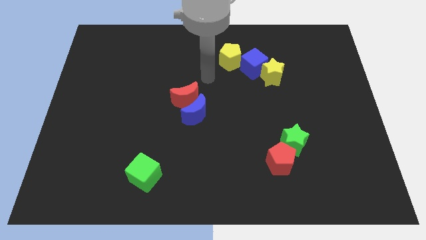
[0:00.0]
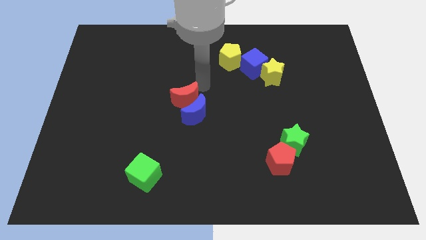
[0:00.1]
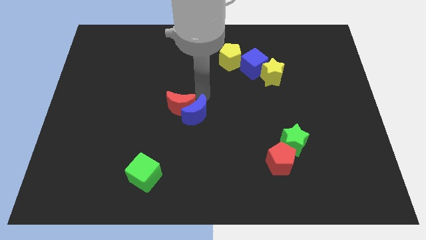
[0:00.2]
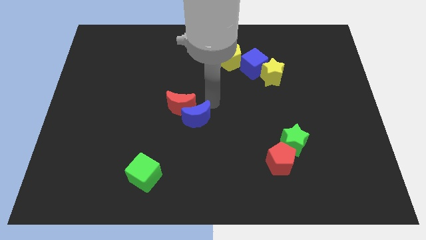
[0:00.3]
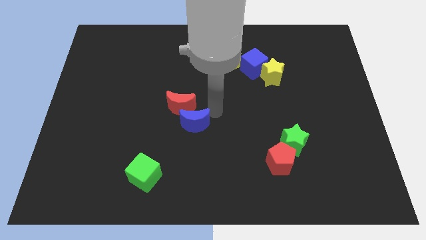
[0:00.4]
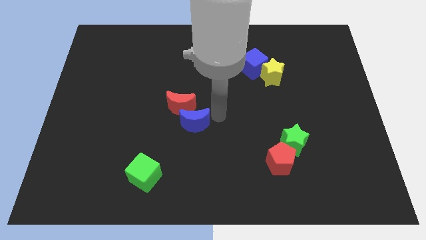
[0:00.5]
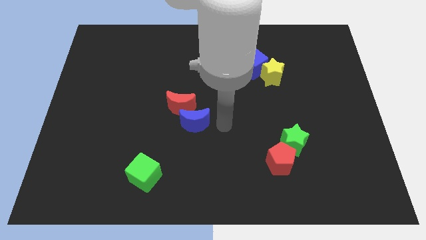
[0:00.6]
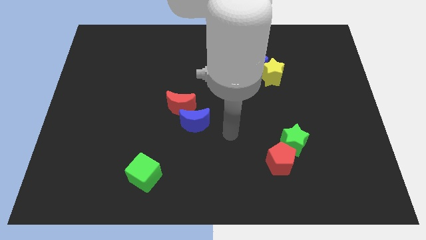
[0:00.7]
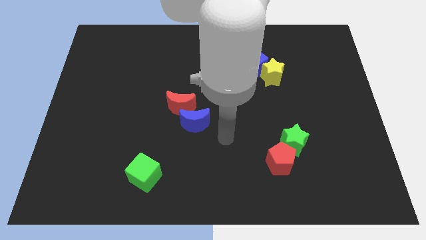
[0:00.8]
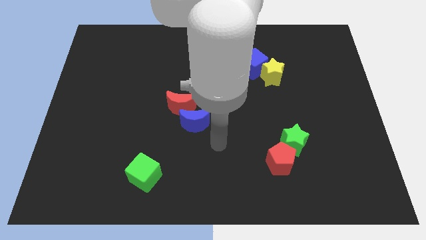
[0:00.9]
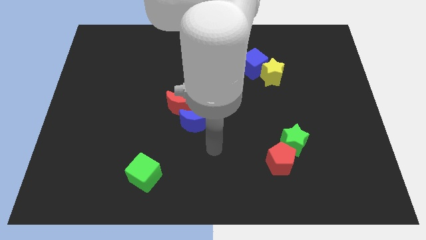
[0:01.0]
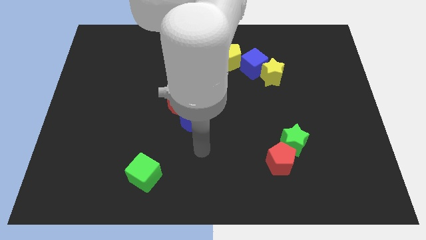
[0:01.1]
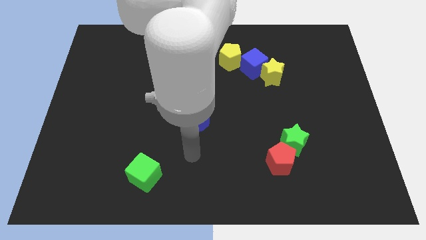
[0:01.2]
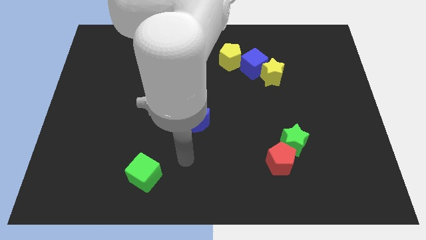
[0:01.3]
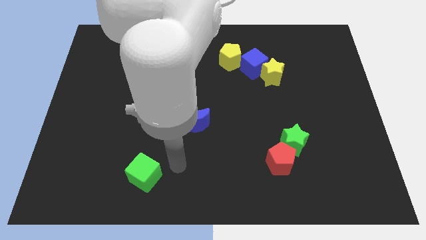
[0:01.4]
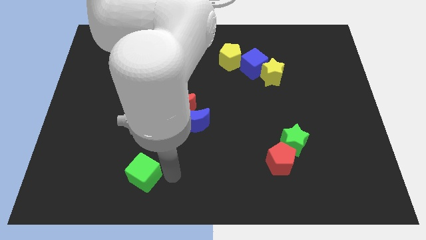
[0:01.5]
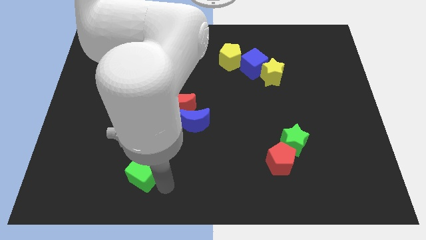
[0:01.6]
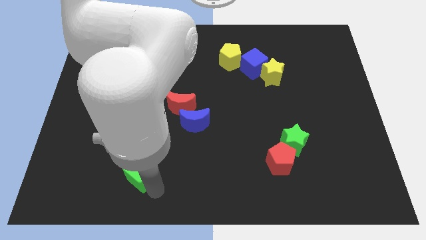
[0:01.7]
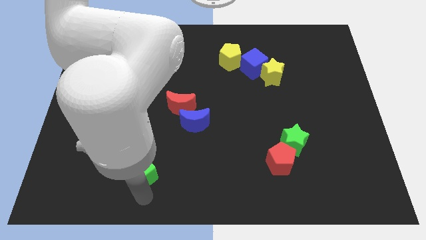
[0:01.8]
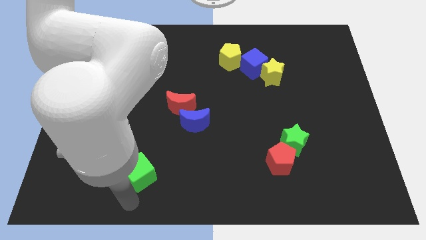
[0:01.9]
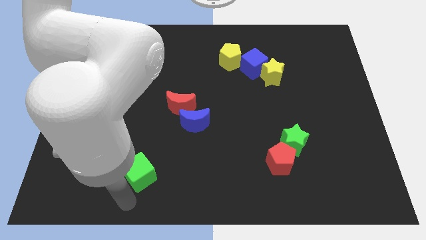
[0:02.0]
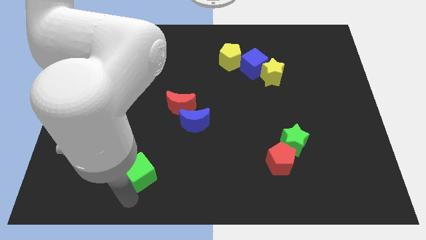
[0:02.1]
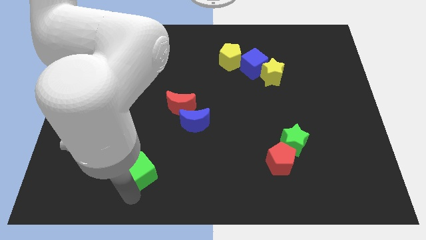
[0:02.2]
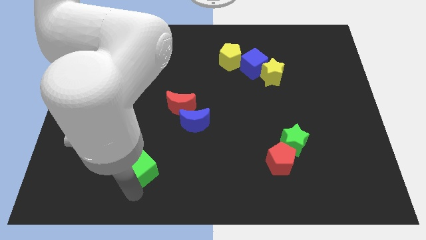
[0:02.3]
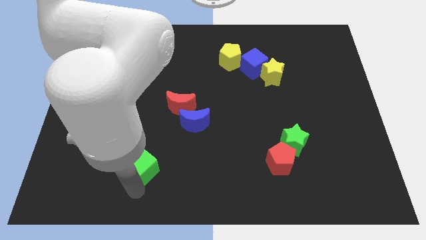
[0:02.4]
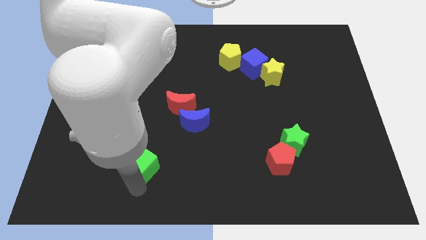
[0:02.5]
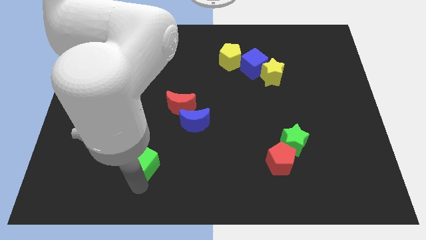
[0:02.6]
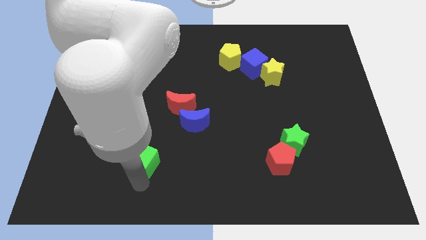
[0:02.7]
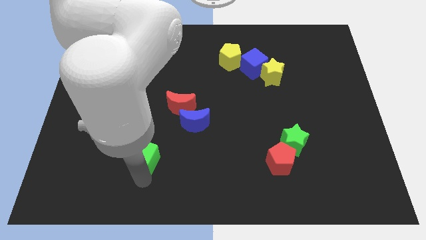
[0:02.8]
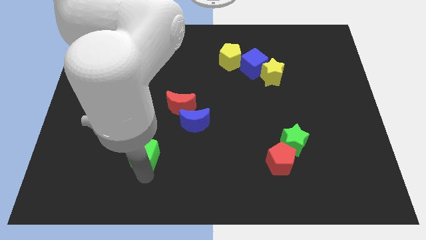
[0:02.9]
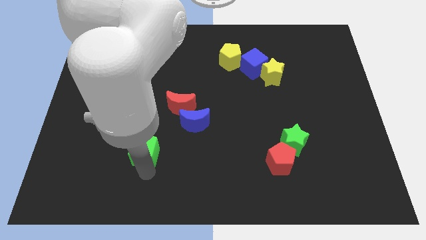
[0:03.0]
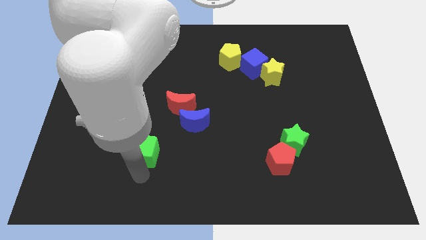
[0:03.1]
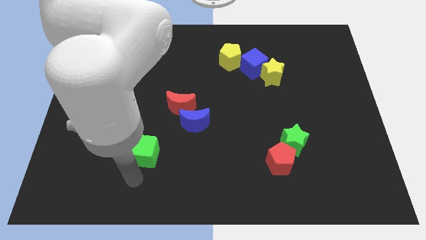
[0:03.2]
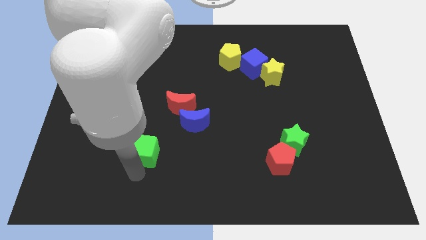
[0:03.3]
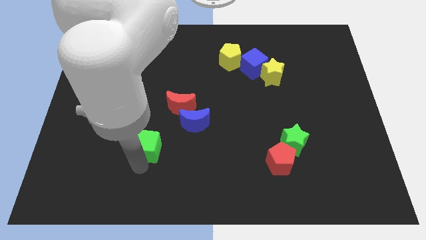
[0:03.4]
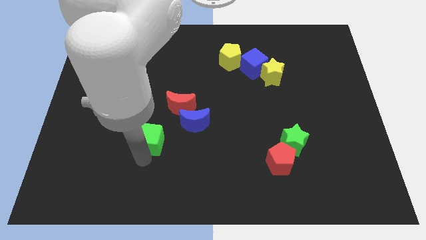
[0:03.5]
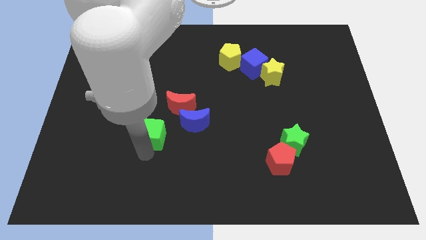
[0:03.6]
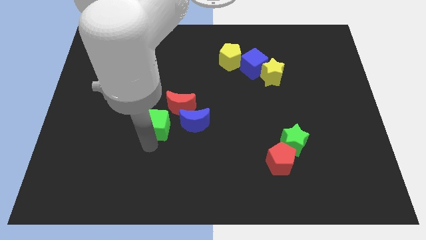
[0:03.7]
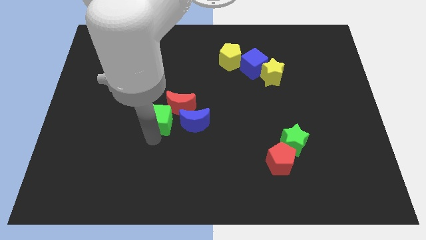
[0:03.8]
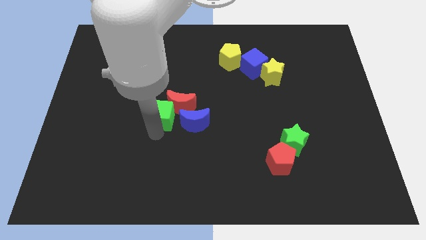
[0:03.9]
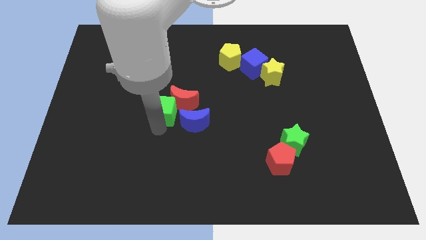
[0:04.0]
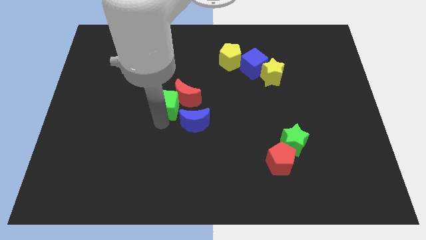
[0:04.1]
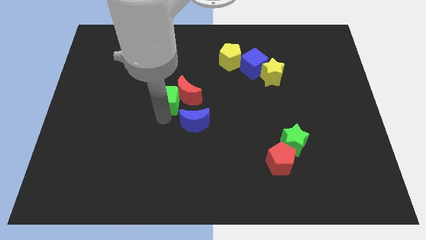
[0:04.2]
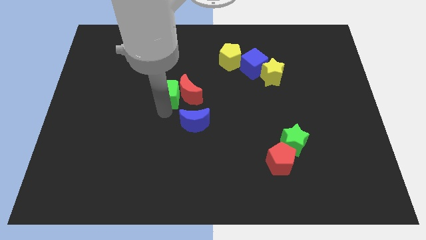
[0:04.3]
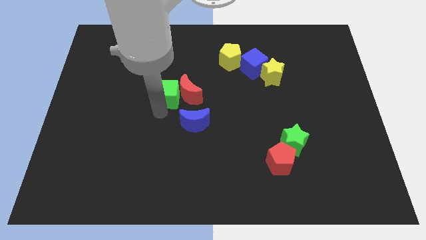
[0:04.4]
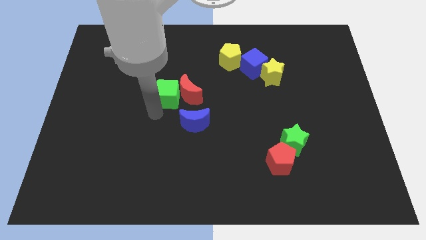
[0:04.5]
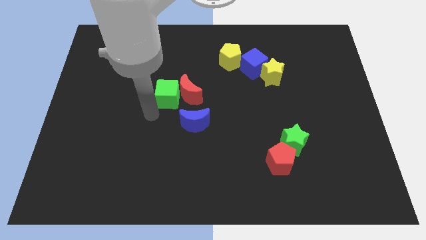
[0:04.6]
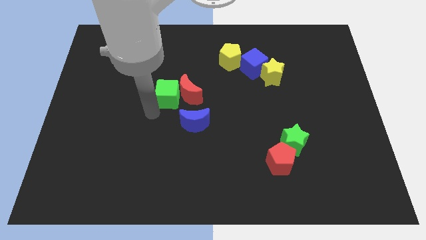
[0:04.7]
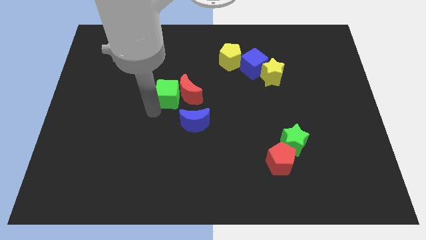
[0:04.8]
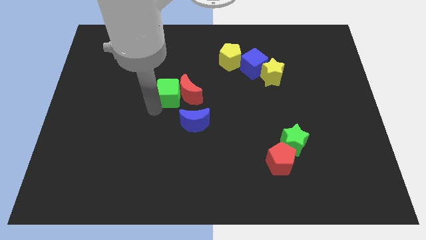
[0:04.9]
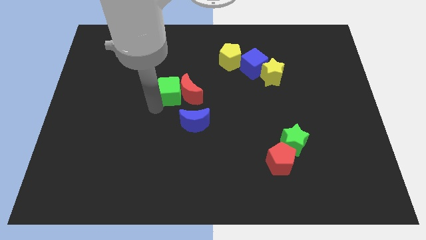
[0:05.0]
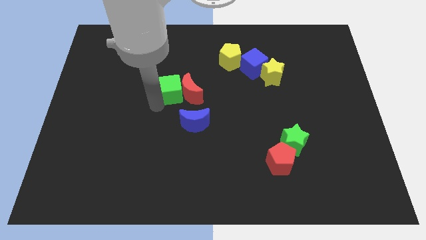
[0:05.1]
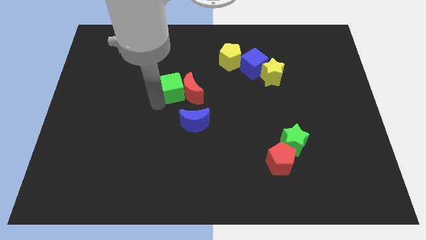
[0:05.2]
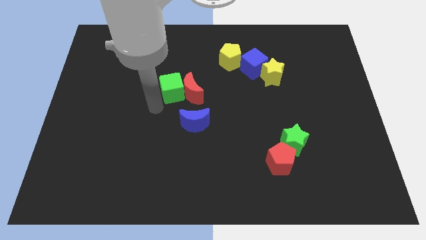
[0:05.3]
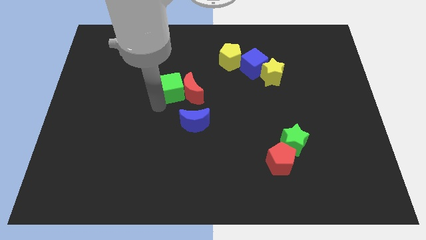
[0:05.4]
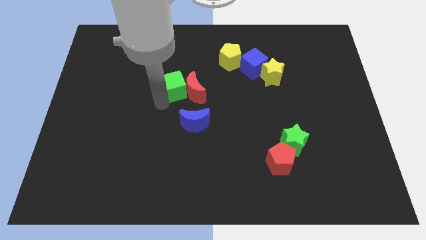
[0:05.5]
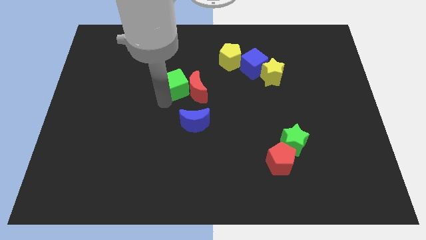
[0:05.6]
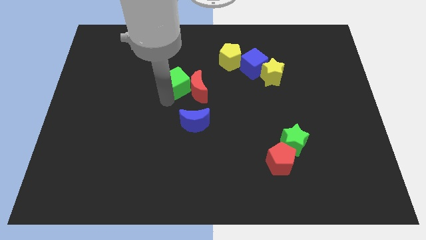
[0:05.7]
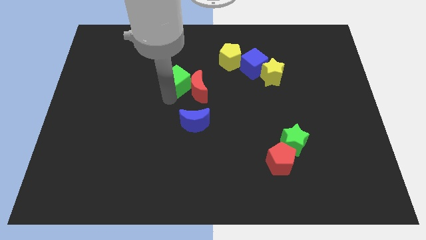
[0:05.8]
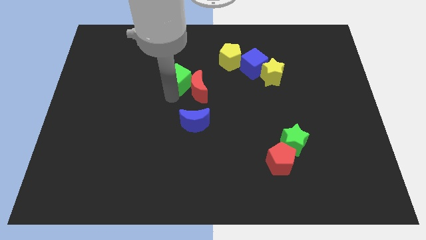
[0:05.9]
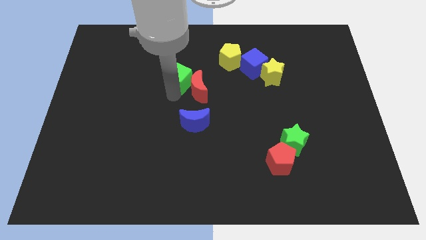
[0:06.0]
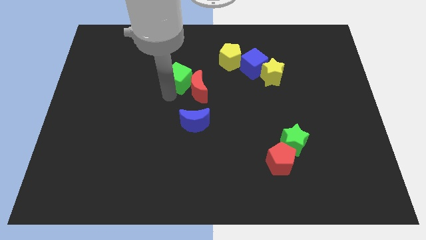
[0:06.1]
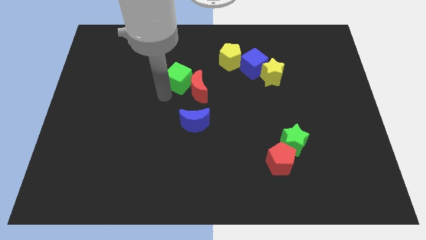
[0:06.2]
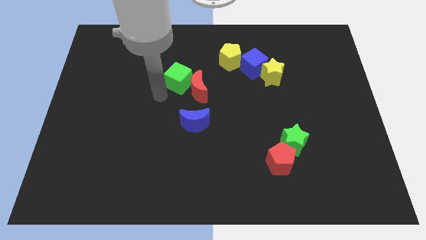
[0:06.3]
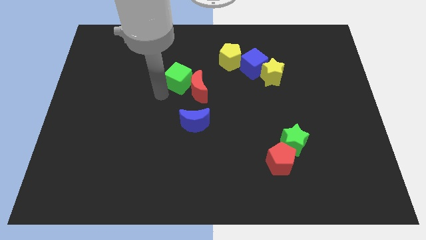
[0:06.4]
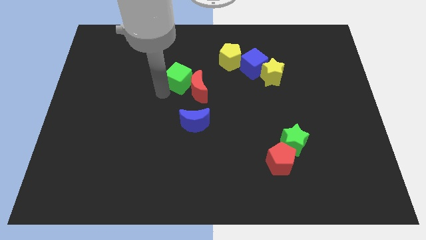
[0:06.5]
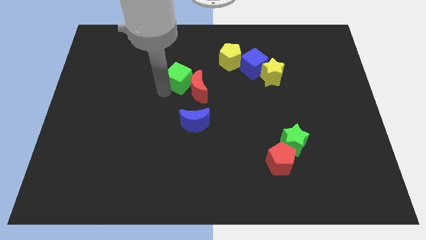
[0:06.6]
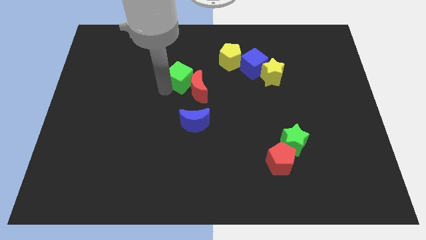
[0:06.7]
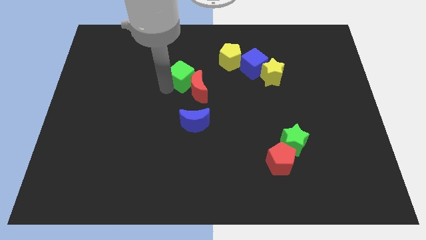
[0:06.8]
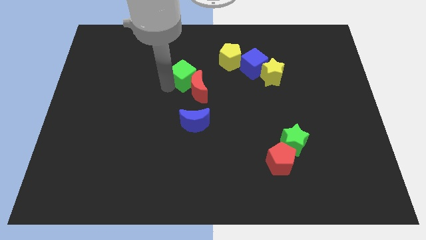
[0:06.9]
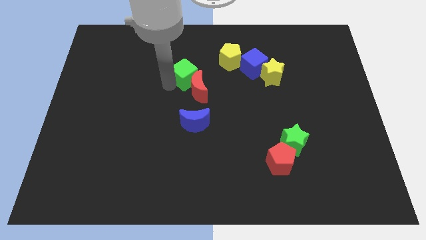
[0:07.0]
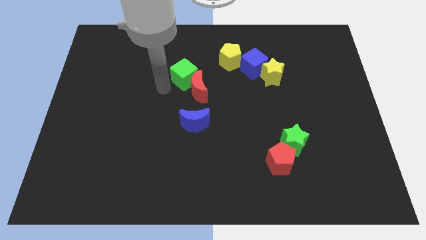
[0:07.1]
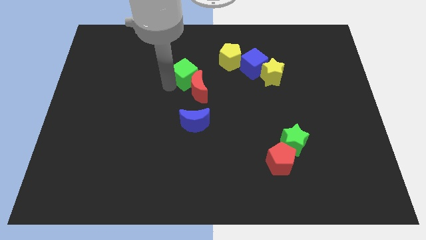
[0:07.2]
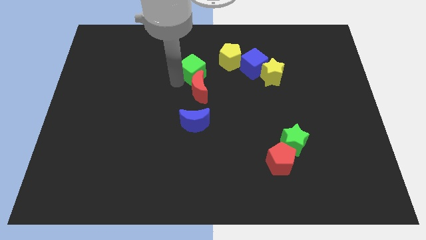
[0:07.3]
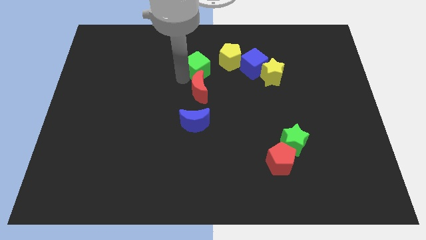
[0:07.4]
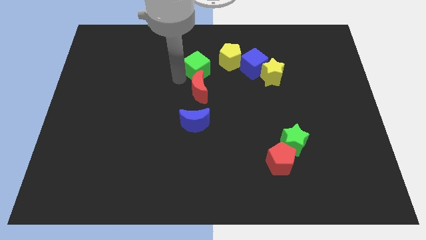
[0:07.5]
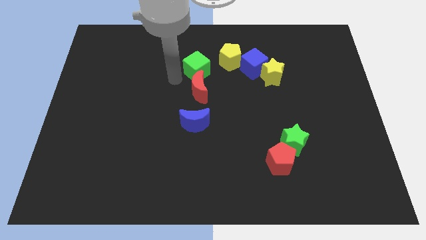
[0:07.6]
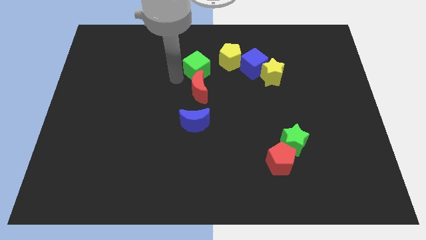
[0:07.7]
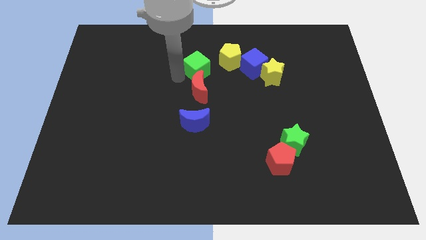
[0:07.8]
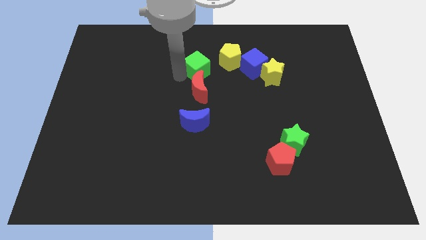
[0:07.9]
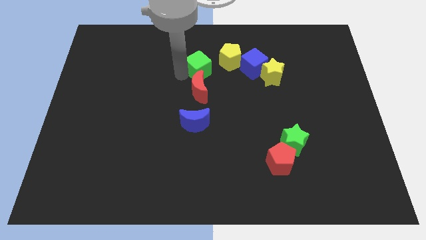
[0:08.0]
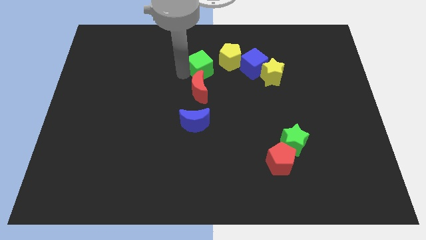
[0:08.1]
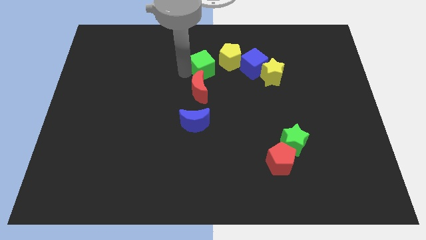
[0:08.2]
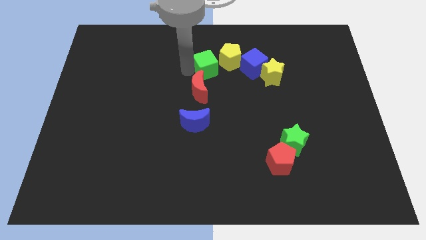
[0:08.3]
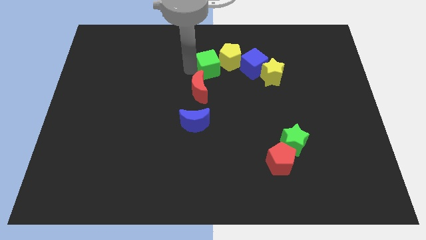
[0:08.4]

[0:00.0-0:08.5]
push the green cube towards the yellow pentagon

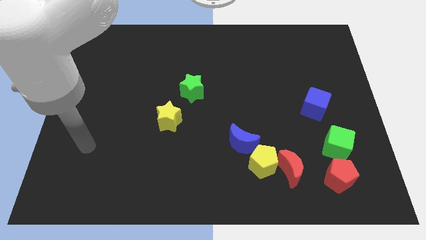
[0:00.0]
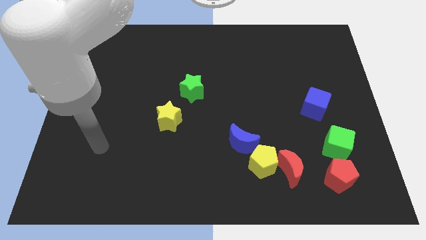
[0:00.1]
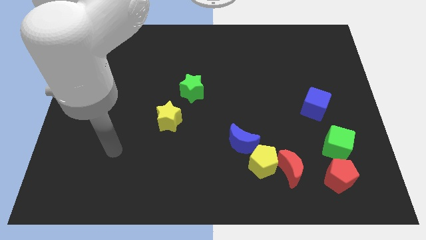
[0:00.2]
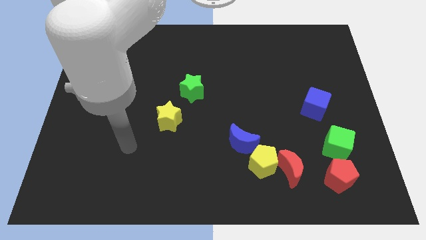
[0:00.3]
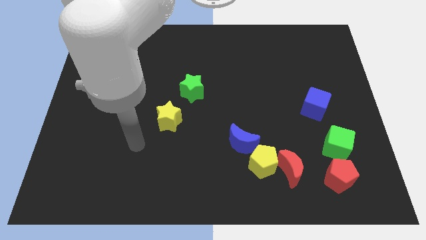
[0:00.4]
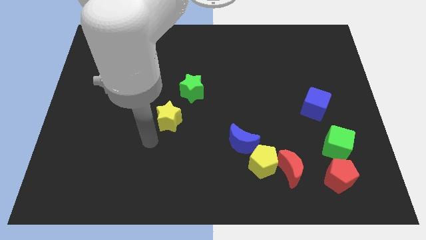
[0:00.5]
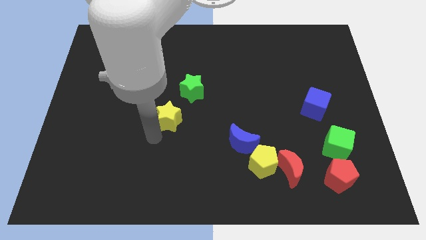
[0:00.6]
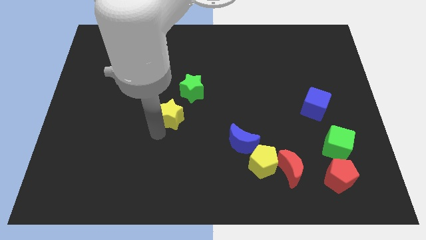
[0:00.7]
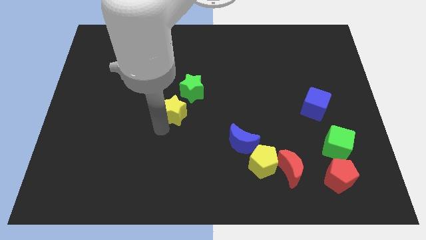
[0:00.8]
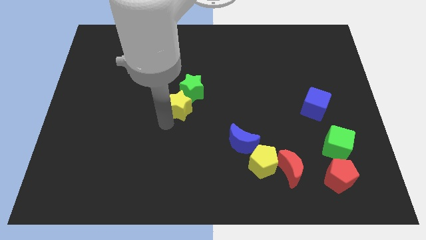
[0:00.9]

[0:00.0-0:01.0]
slide the yellow star towards the green star
